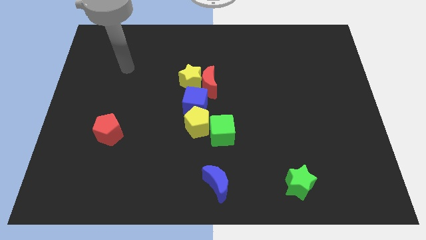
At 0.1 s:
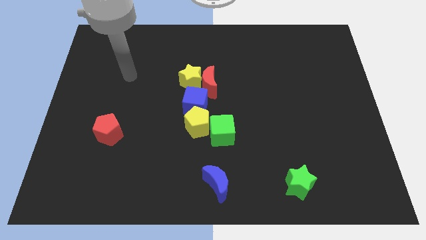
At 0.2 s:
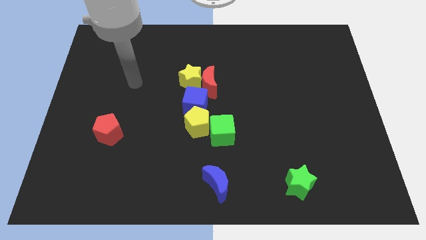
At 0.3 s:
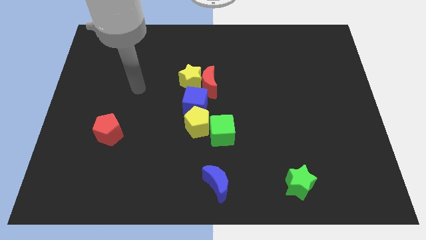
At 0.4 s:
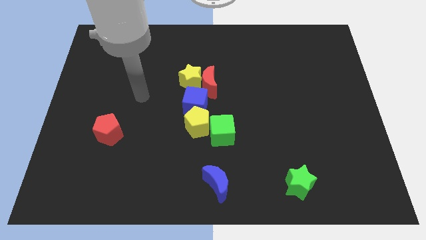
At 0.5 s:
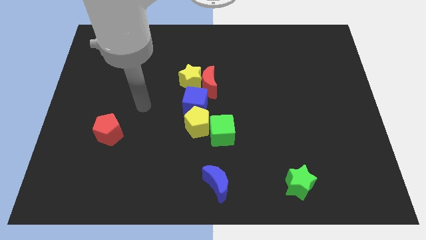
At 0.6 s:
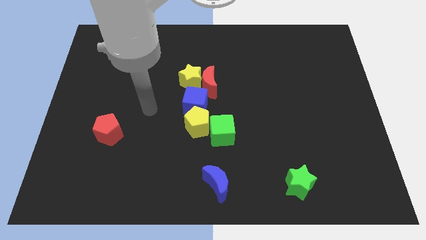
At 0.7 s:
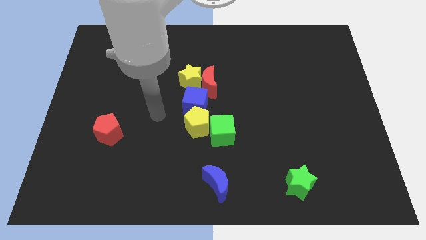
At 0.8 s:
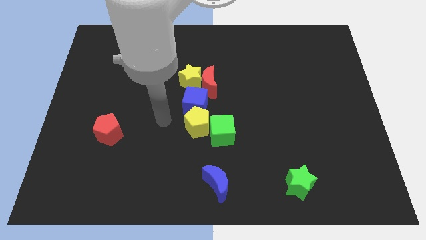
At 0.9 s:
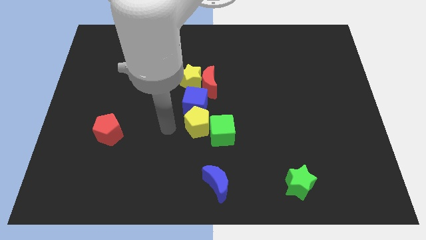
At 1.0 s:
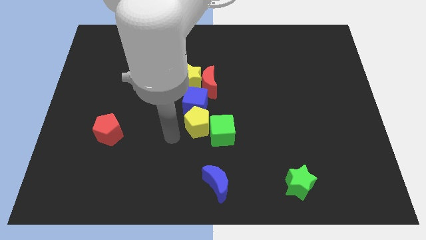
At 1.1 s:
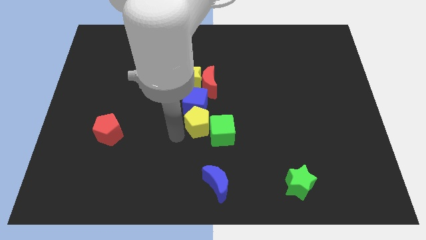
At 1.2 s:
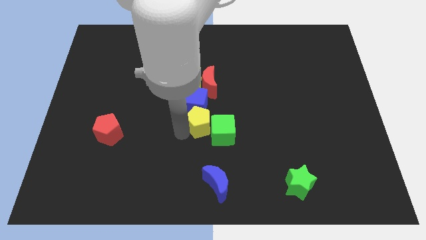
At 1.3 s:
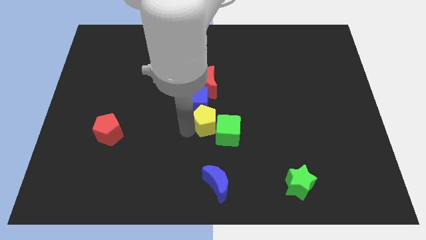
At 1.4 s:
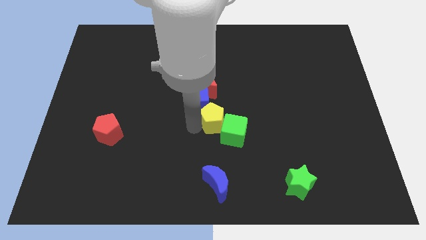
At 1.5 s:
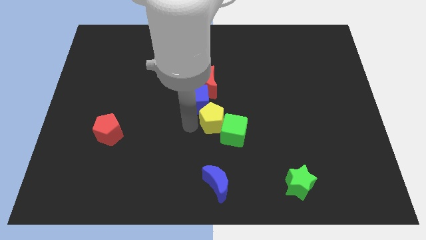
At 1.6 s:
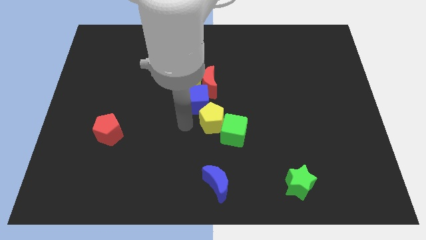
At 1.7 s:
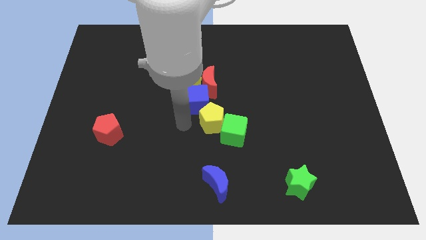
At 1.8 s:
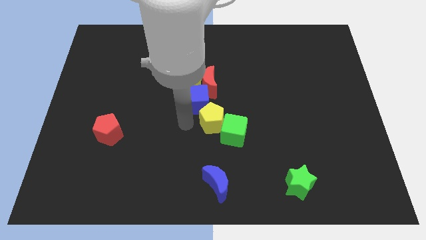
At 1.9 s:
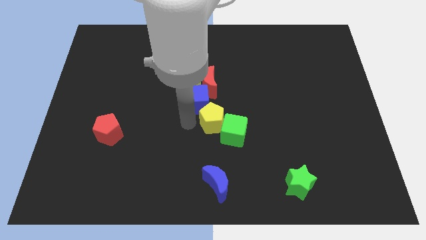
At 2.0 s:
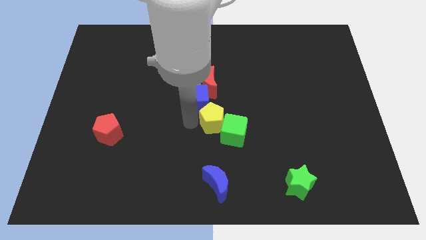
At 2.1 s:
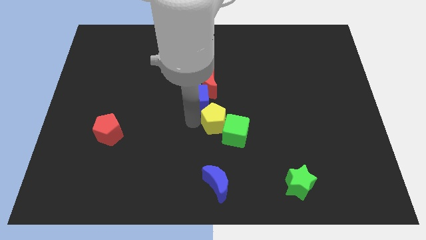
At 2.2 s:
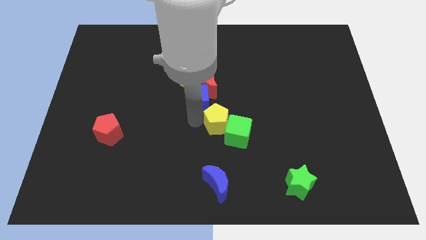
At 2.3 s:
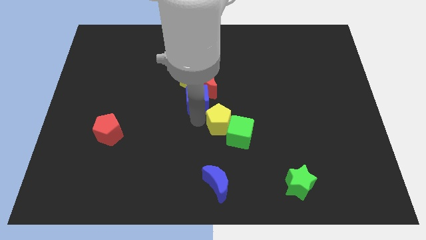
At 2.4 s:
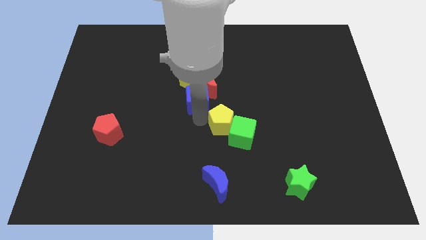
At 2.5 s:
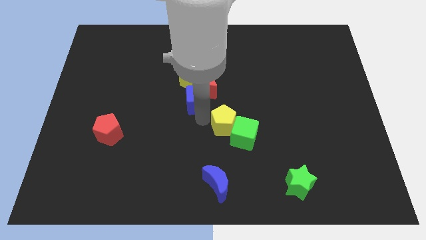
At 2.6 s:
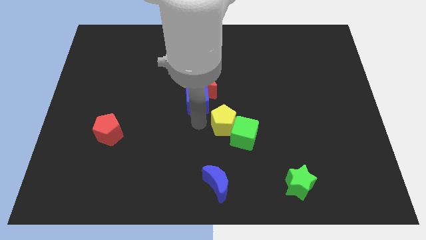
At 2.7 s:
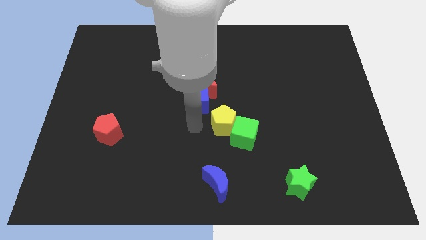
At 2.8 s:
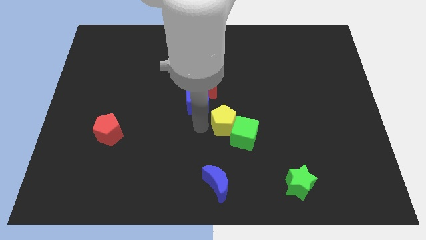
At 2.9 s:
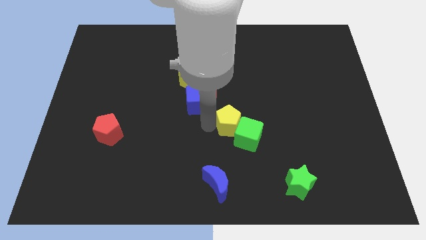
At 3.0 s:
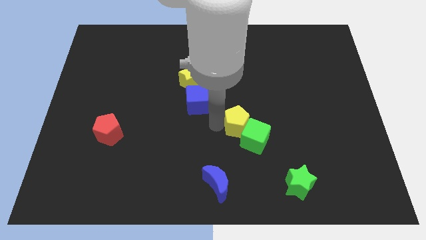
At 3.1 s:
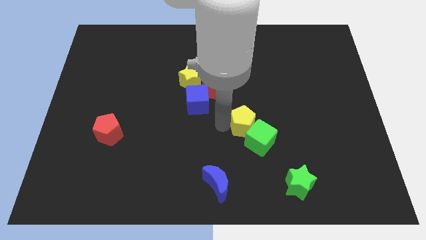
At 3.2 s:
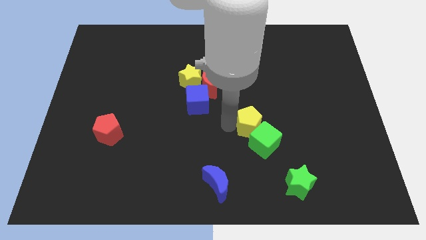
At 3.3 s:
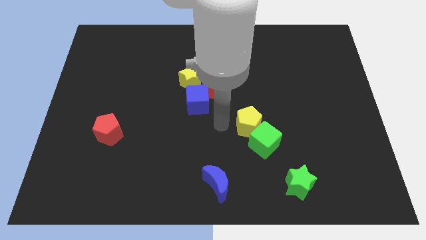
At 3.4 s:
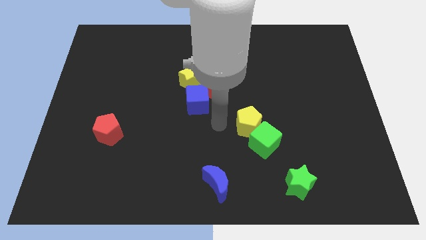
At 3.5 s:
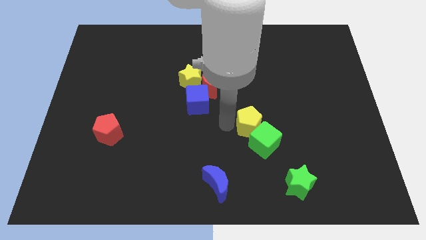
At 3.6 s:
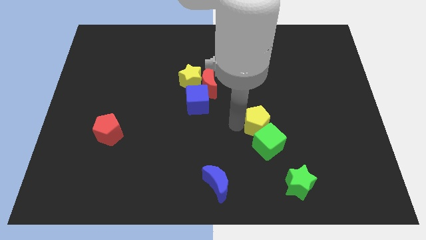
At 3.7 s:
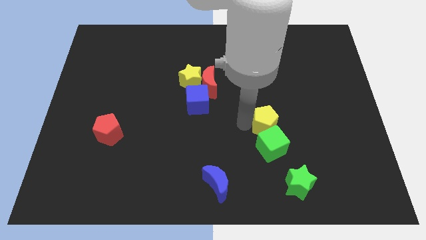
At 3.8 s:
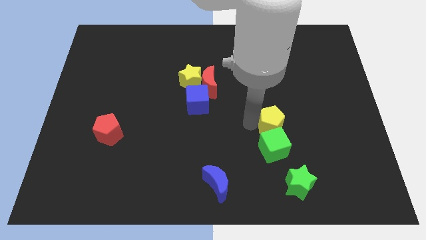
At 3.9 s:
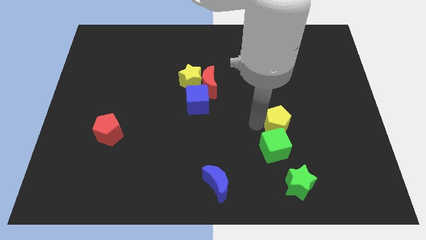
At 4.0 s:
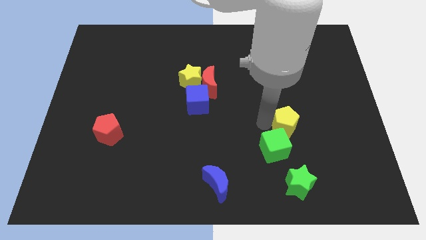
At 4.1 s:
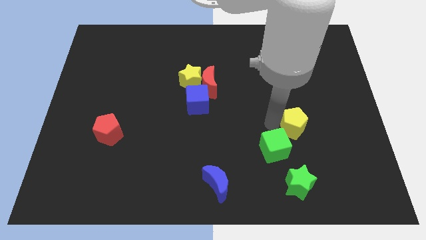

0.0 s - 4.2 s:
push the yellow pentagon right

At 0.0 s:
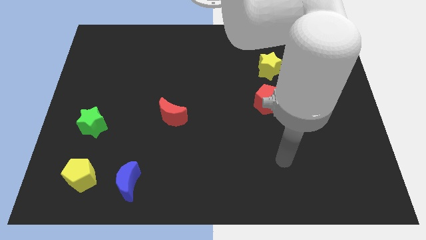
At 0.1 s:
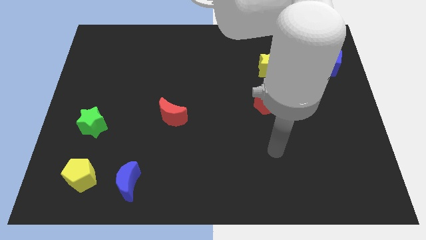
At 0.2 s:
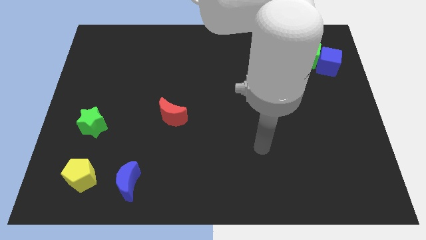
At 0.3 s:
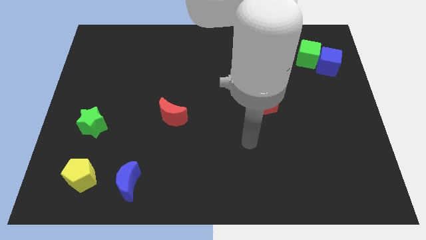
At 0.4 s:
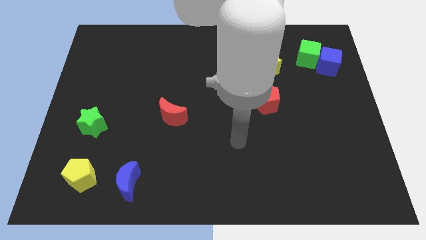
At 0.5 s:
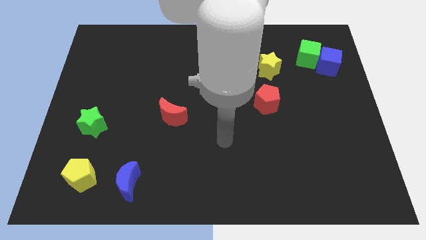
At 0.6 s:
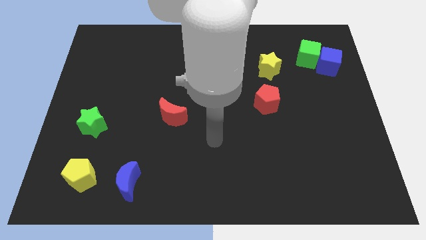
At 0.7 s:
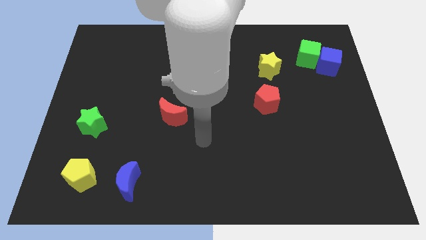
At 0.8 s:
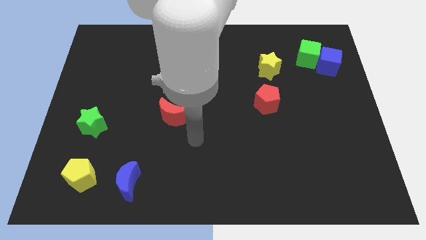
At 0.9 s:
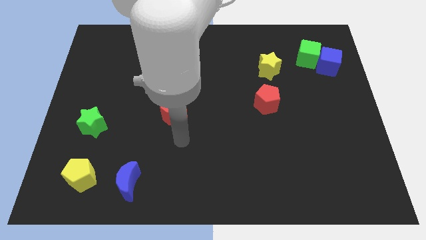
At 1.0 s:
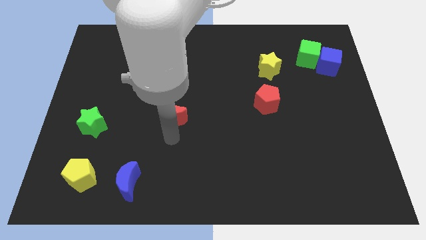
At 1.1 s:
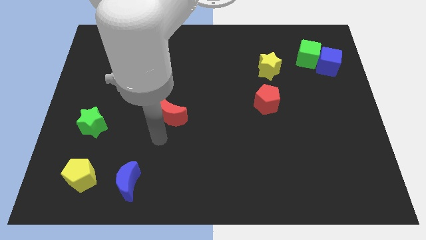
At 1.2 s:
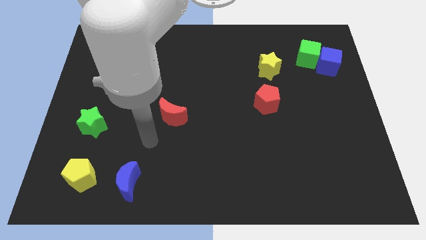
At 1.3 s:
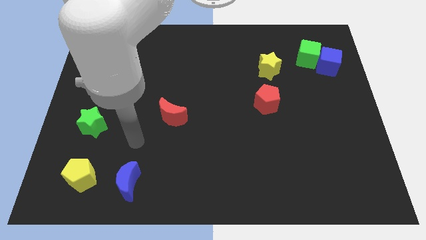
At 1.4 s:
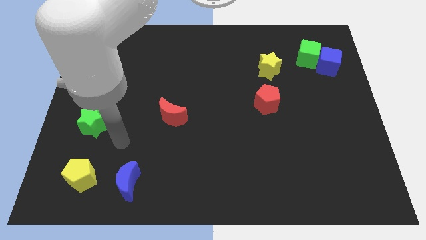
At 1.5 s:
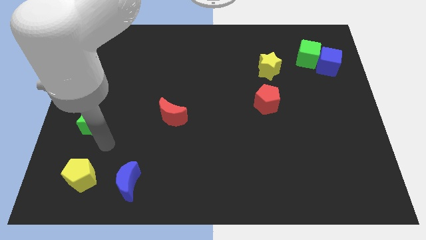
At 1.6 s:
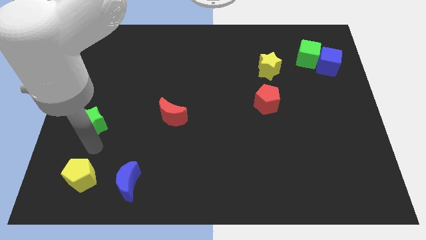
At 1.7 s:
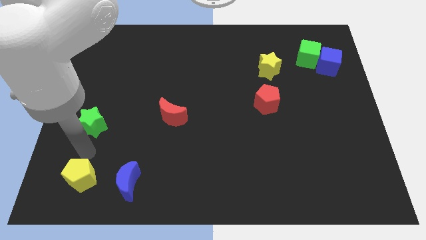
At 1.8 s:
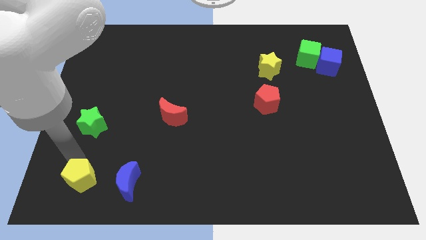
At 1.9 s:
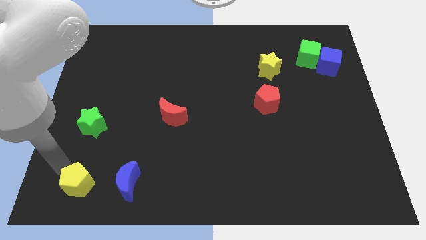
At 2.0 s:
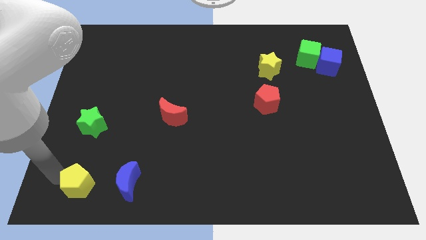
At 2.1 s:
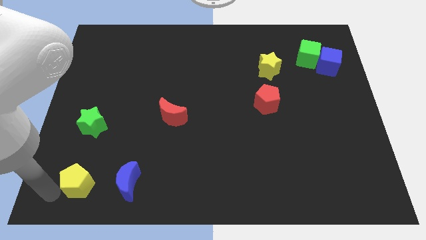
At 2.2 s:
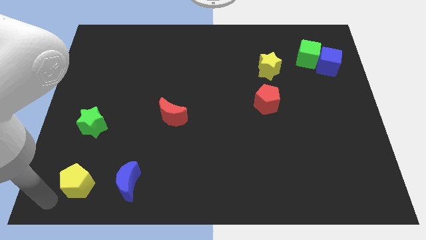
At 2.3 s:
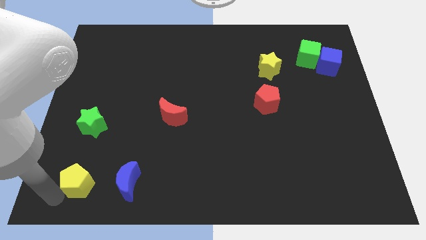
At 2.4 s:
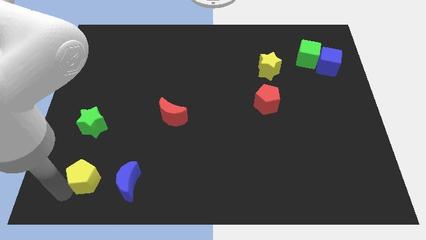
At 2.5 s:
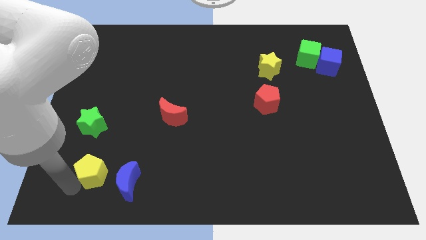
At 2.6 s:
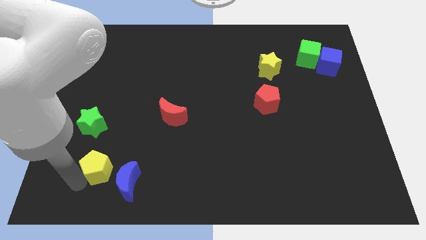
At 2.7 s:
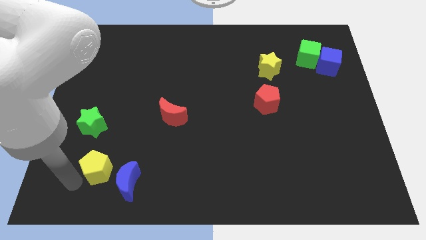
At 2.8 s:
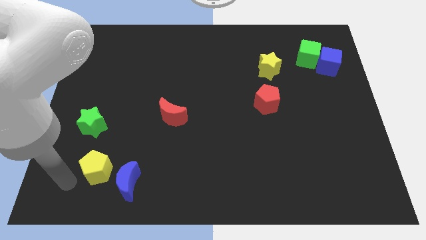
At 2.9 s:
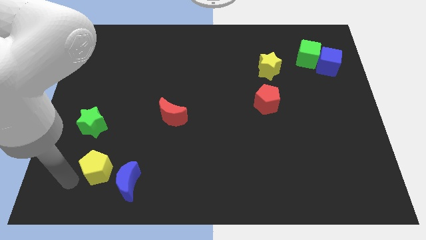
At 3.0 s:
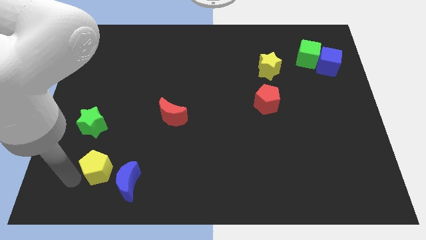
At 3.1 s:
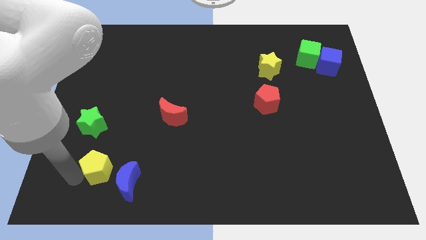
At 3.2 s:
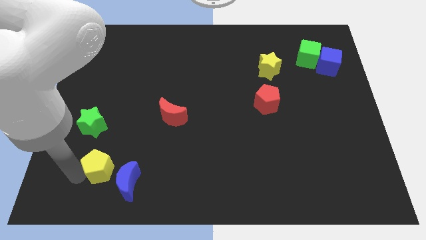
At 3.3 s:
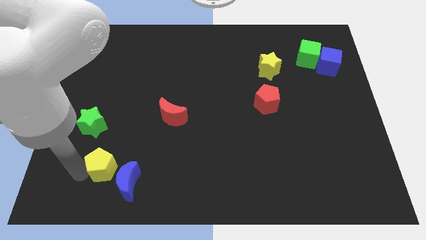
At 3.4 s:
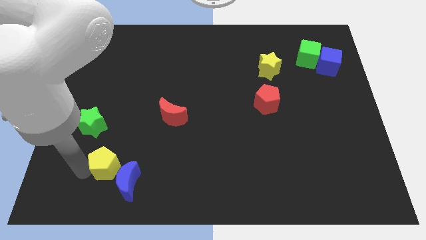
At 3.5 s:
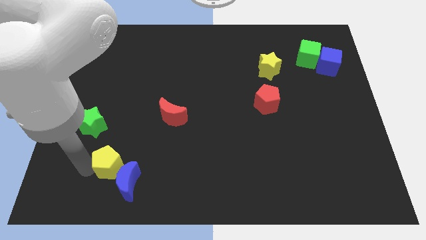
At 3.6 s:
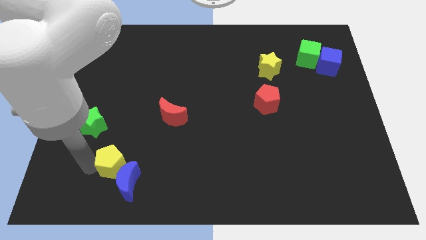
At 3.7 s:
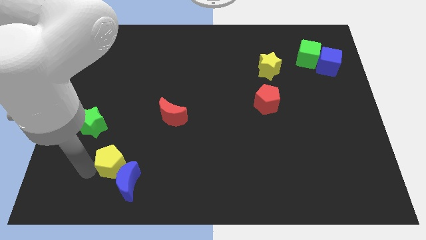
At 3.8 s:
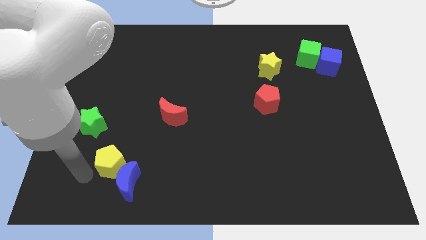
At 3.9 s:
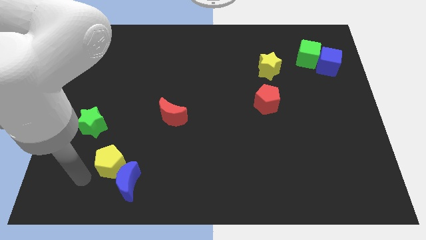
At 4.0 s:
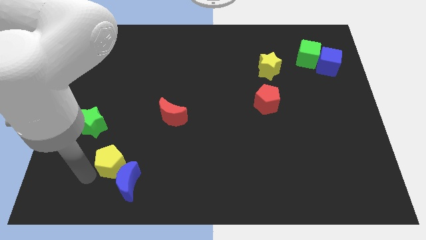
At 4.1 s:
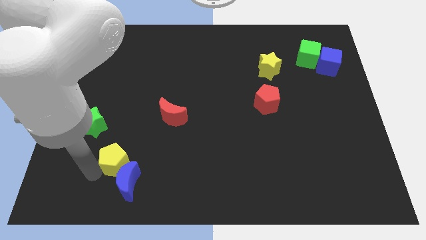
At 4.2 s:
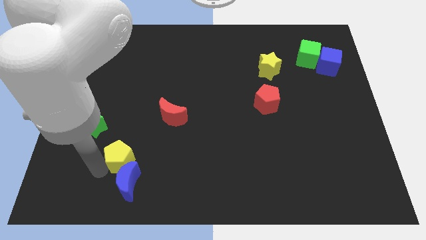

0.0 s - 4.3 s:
slightly push the yellow pentagon right
